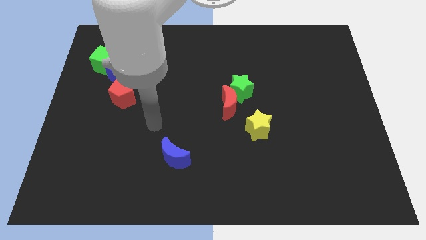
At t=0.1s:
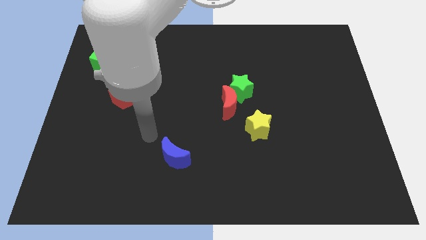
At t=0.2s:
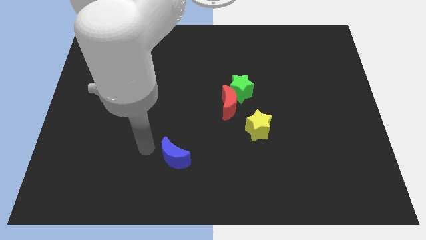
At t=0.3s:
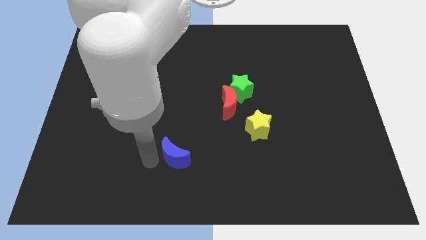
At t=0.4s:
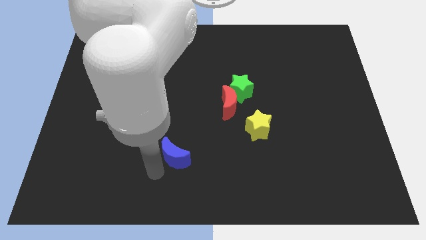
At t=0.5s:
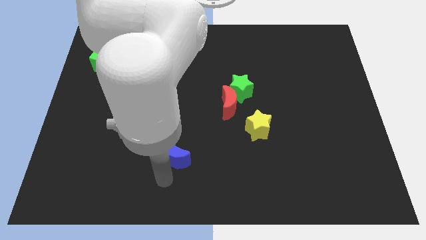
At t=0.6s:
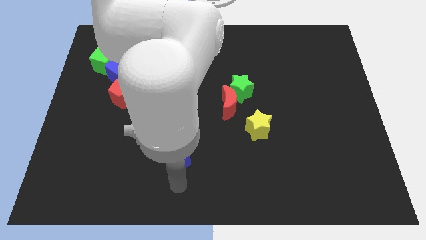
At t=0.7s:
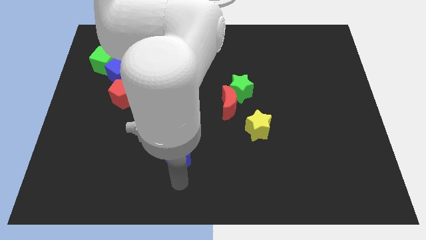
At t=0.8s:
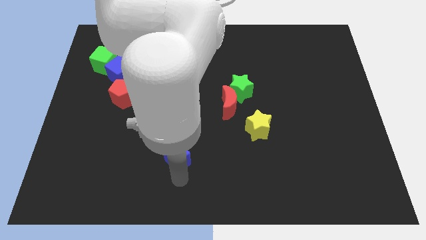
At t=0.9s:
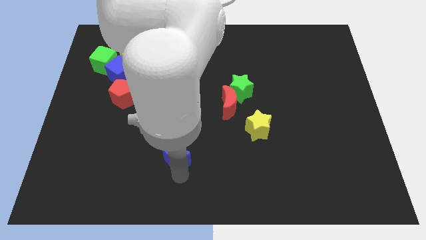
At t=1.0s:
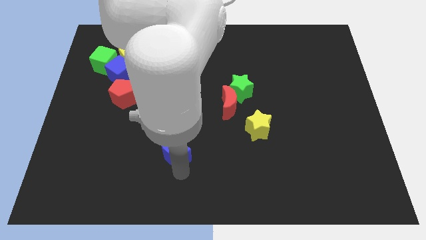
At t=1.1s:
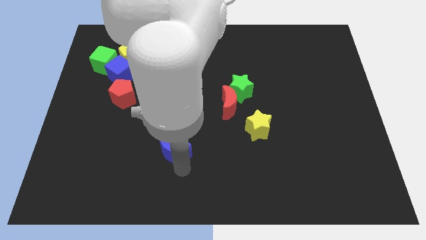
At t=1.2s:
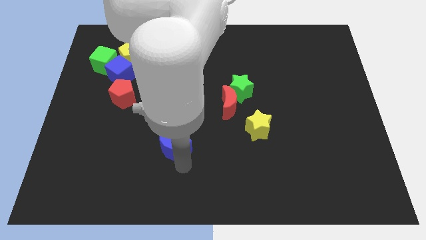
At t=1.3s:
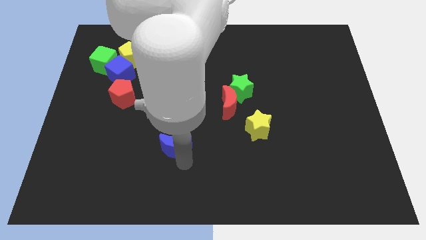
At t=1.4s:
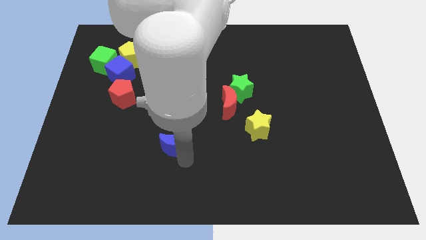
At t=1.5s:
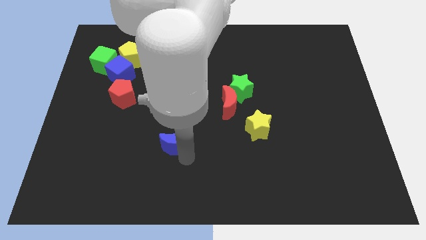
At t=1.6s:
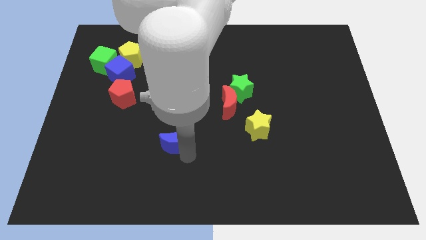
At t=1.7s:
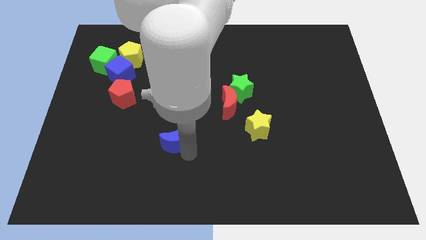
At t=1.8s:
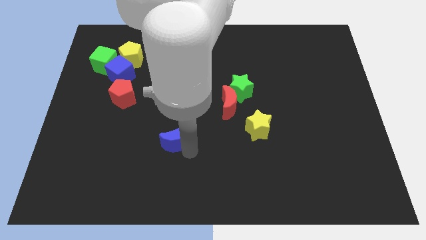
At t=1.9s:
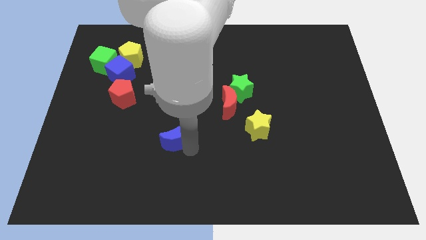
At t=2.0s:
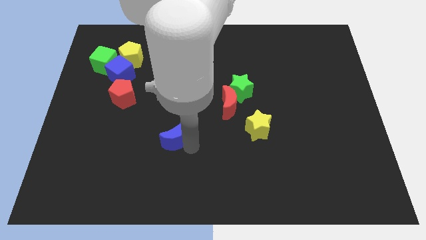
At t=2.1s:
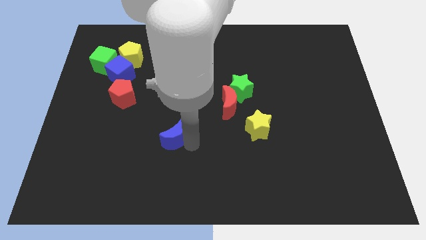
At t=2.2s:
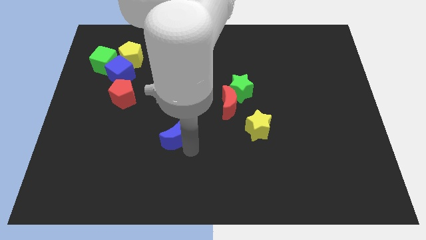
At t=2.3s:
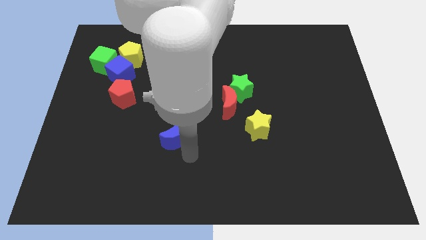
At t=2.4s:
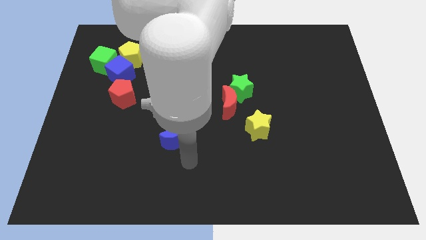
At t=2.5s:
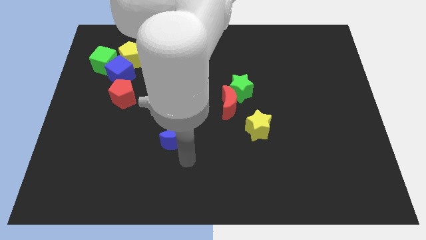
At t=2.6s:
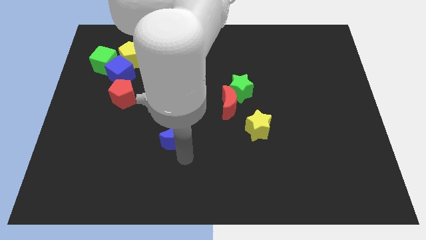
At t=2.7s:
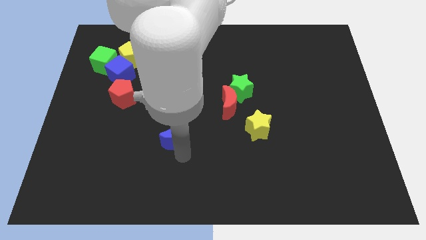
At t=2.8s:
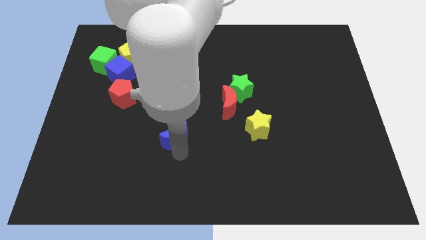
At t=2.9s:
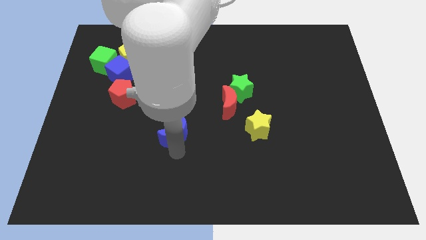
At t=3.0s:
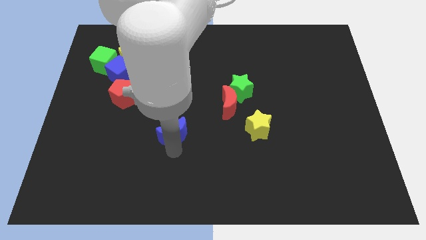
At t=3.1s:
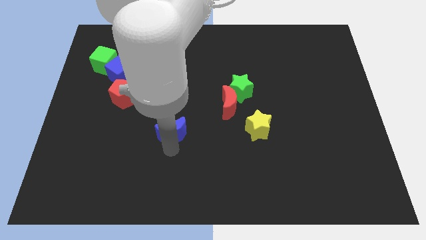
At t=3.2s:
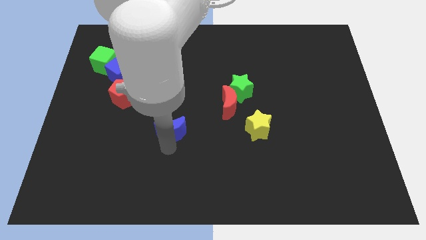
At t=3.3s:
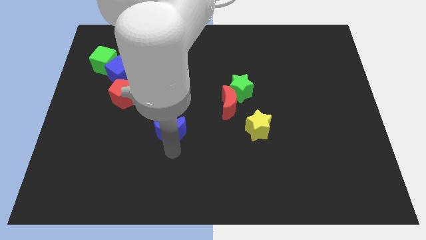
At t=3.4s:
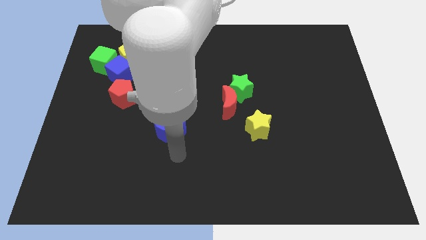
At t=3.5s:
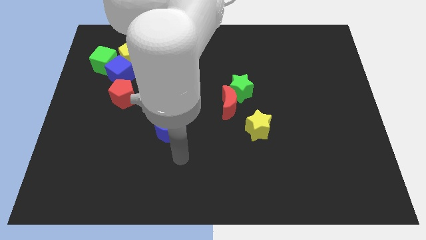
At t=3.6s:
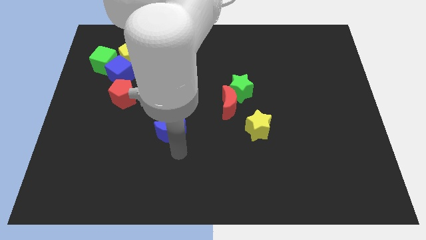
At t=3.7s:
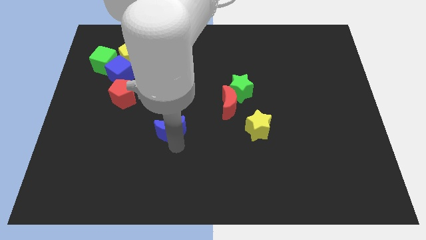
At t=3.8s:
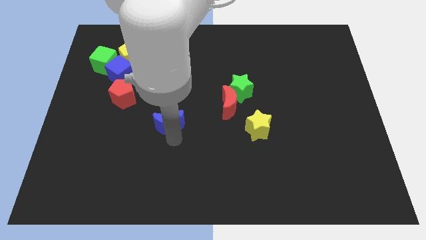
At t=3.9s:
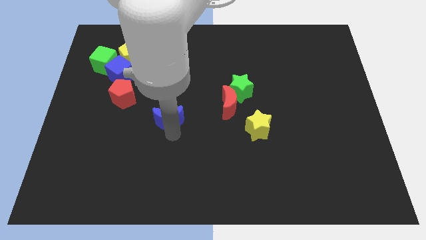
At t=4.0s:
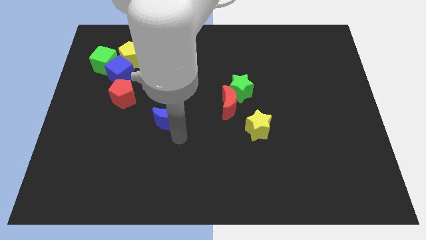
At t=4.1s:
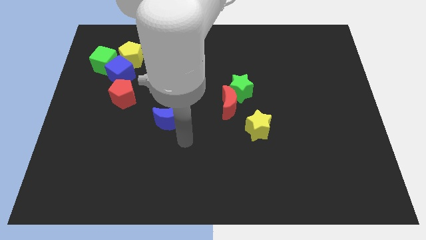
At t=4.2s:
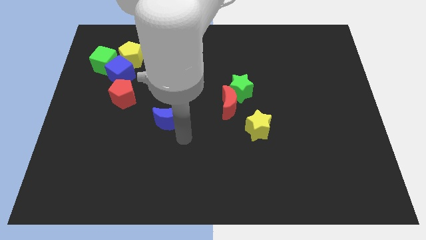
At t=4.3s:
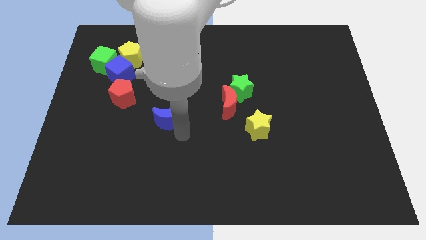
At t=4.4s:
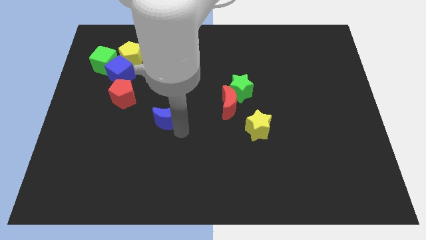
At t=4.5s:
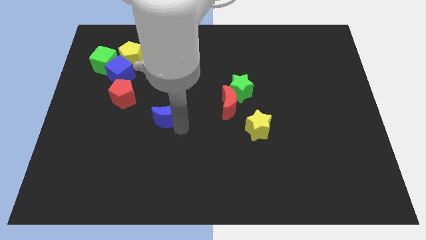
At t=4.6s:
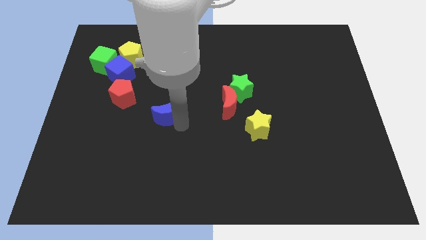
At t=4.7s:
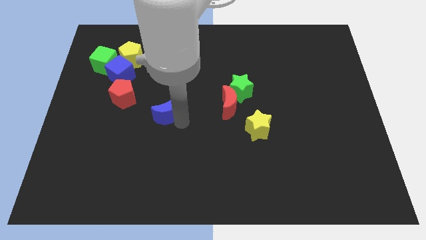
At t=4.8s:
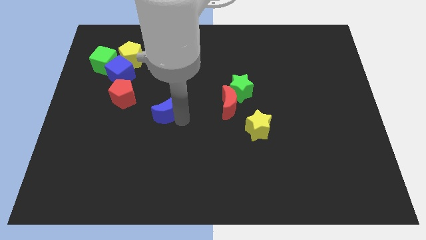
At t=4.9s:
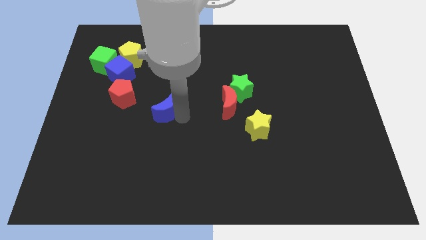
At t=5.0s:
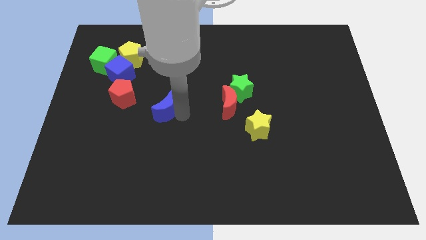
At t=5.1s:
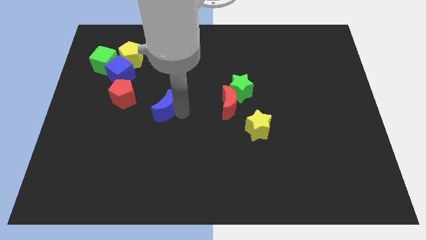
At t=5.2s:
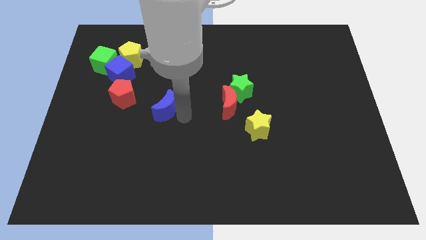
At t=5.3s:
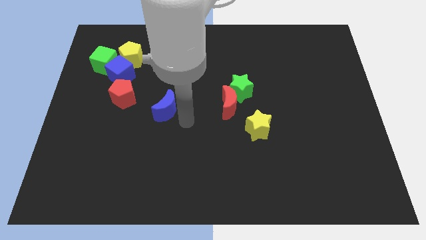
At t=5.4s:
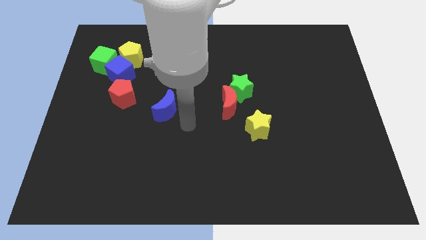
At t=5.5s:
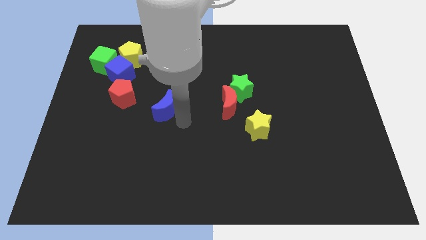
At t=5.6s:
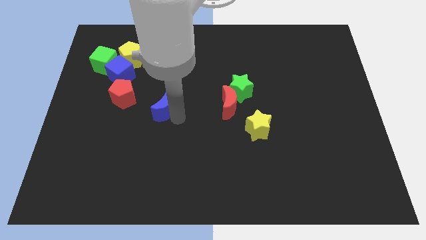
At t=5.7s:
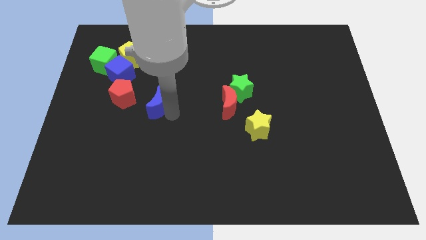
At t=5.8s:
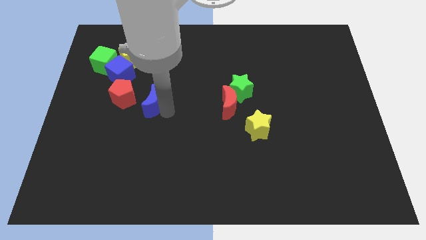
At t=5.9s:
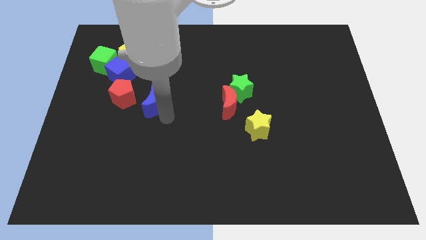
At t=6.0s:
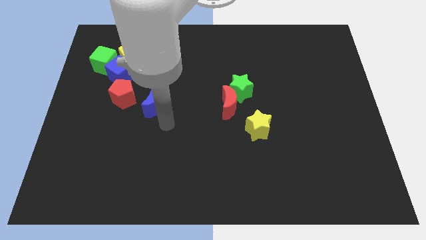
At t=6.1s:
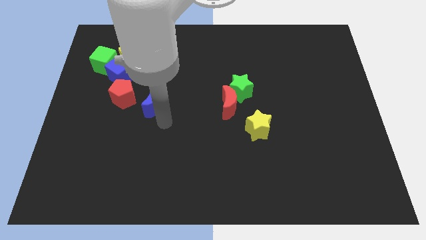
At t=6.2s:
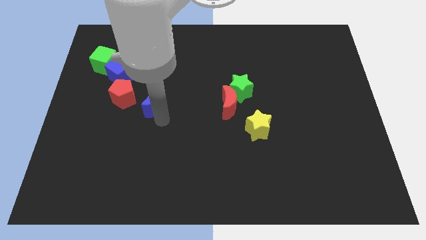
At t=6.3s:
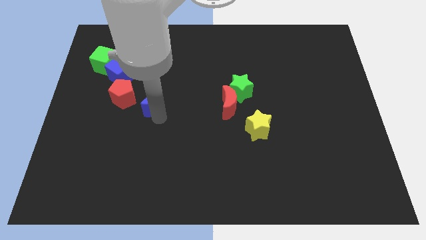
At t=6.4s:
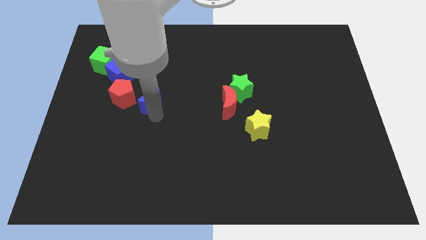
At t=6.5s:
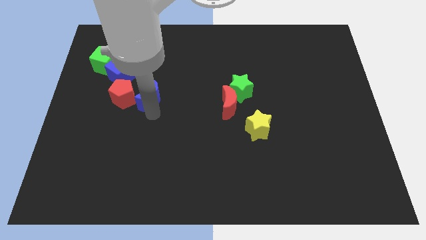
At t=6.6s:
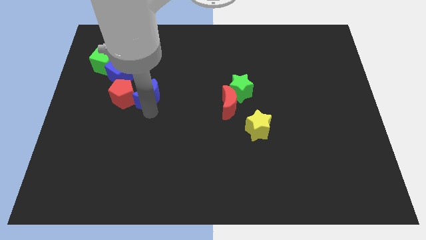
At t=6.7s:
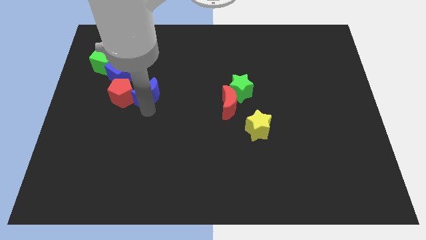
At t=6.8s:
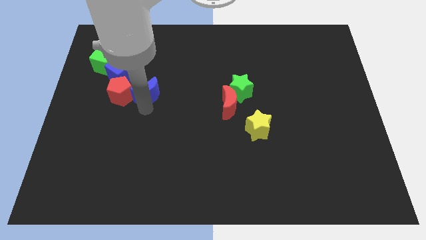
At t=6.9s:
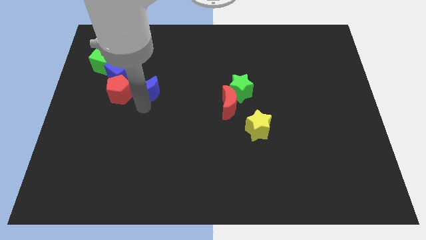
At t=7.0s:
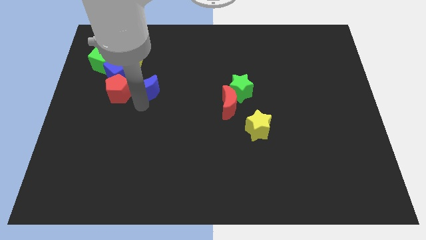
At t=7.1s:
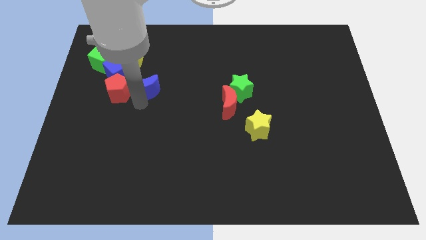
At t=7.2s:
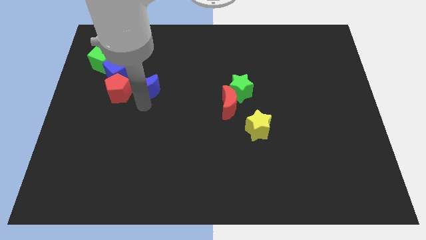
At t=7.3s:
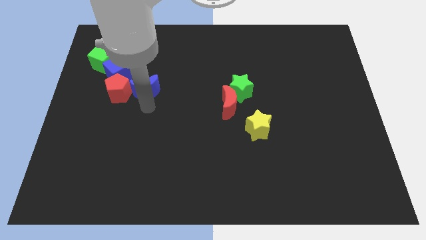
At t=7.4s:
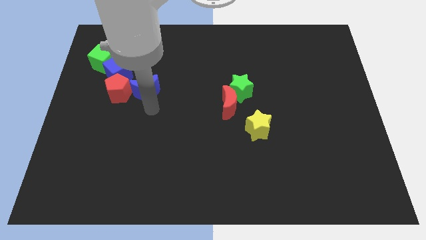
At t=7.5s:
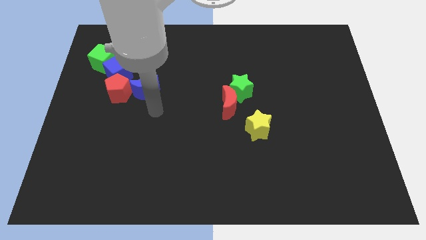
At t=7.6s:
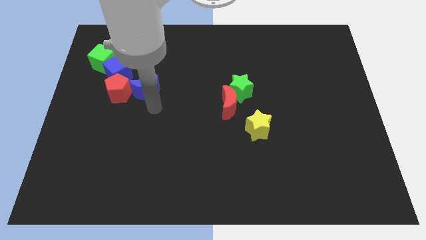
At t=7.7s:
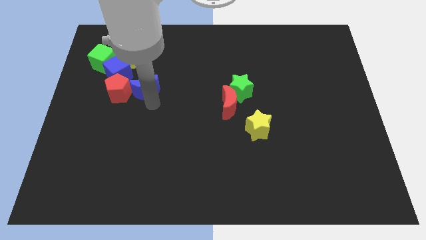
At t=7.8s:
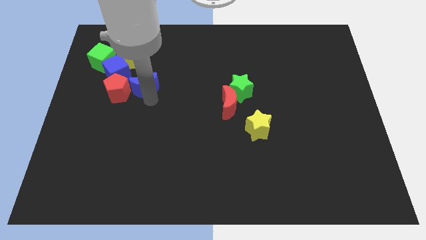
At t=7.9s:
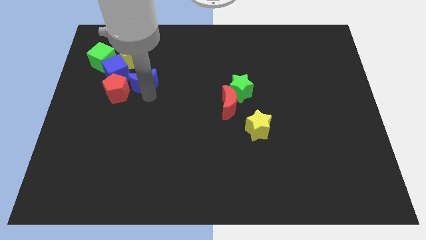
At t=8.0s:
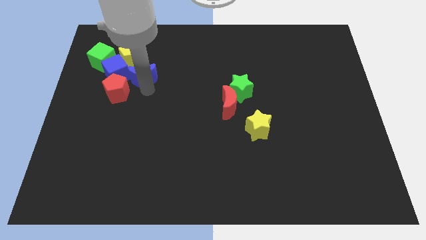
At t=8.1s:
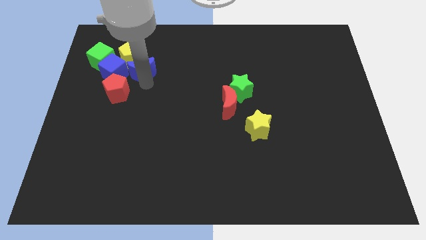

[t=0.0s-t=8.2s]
slide the blue moon to the yellow pentagon
